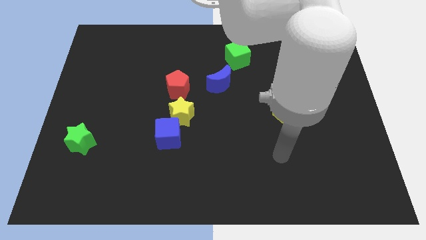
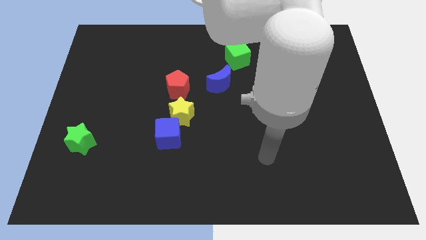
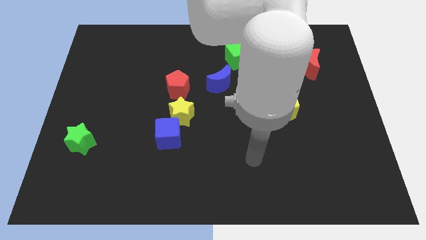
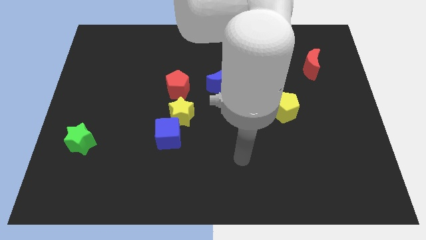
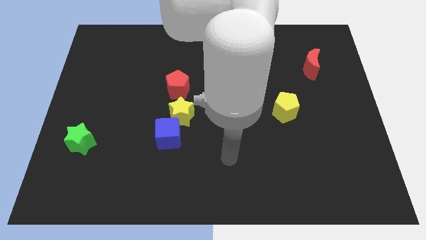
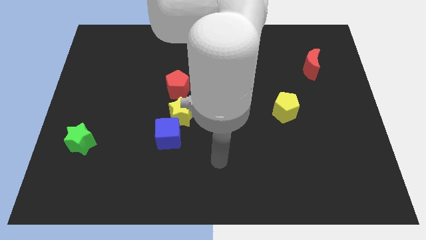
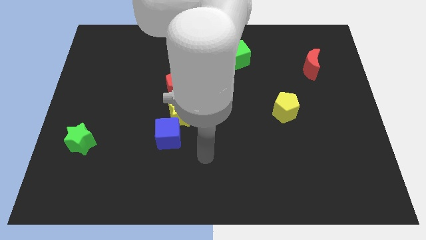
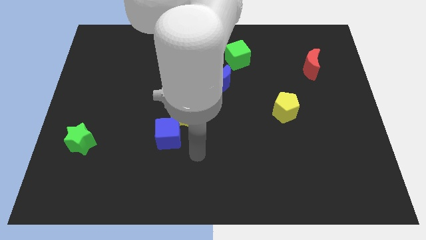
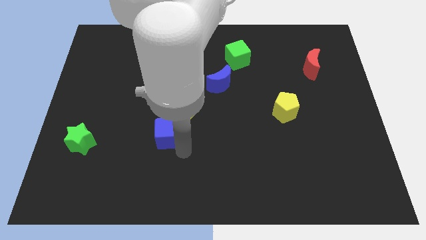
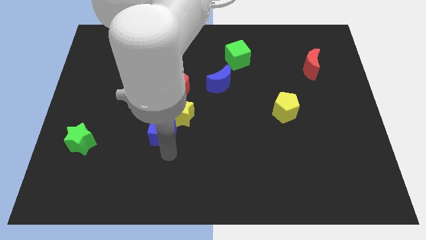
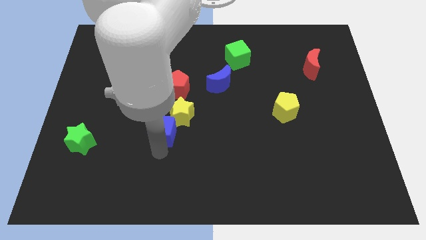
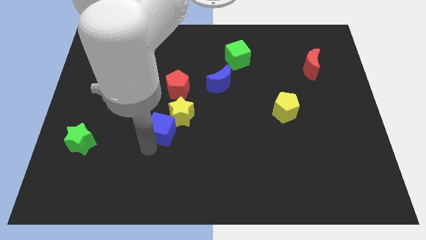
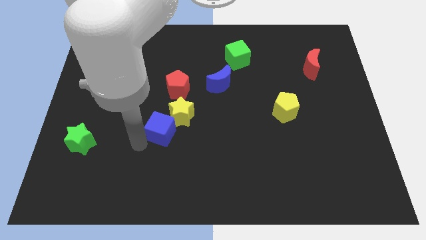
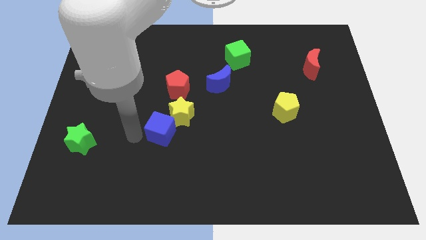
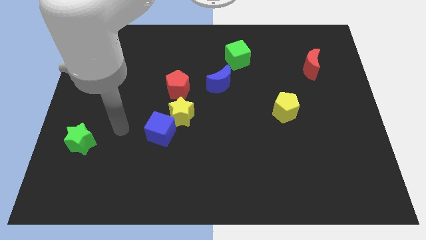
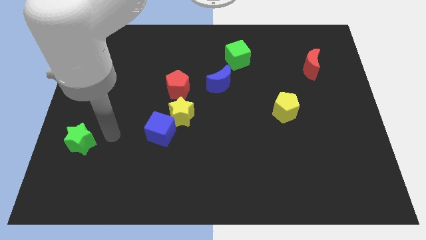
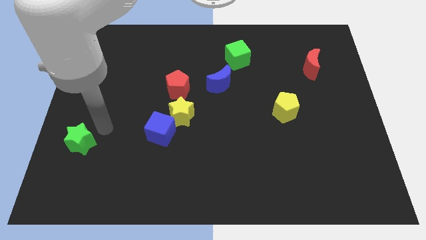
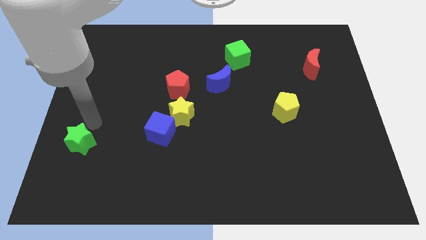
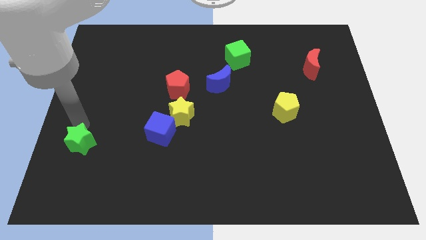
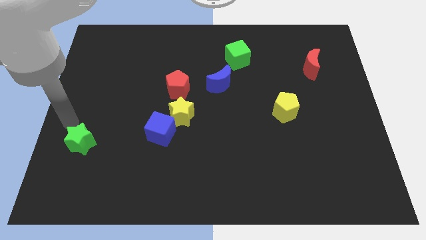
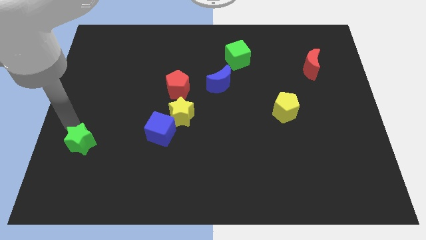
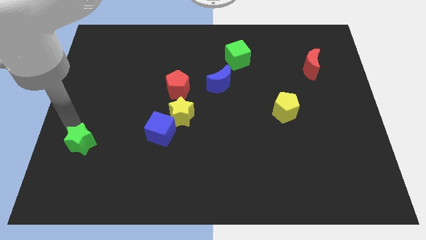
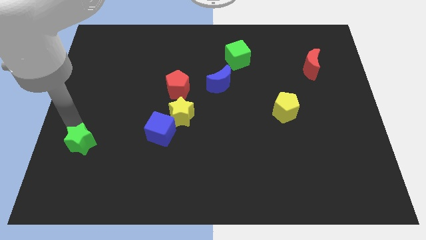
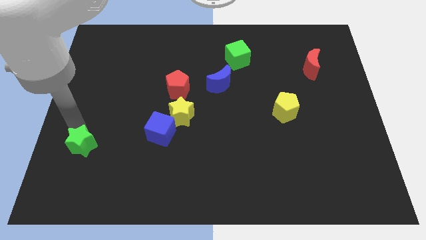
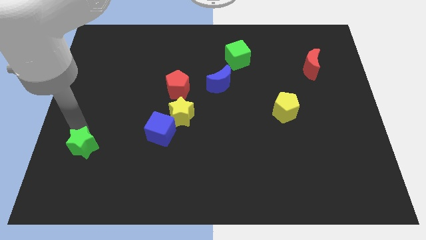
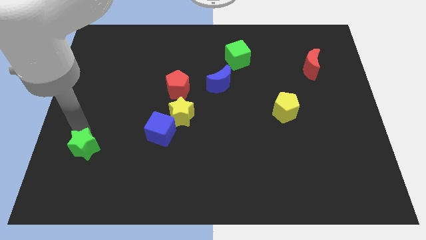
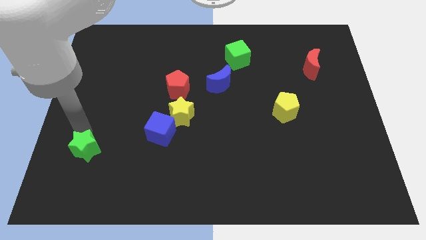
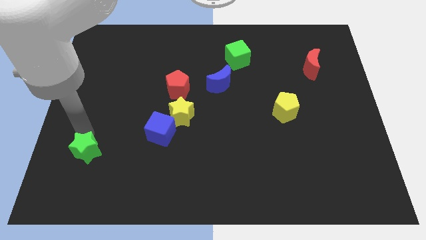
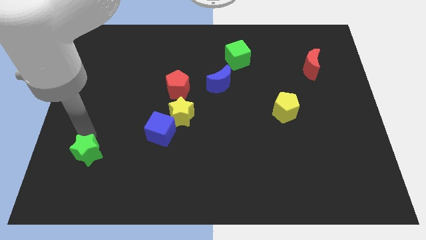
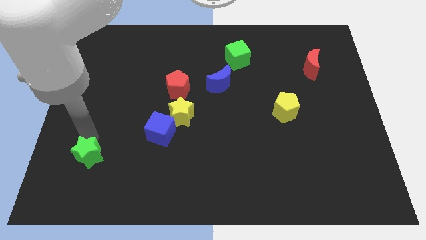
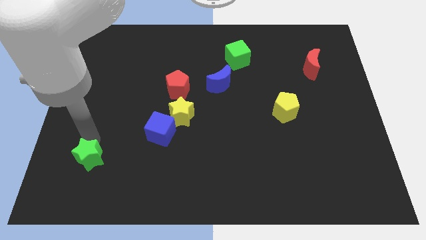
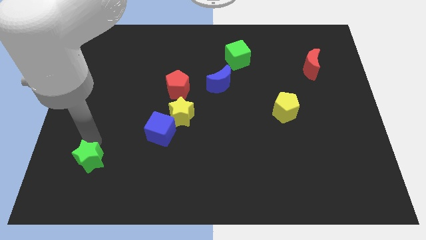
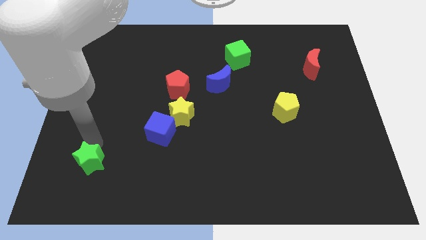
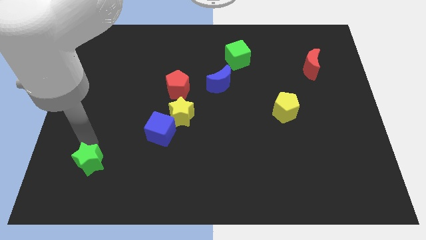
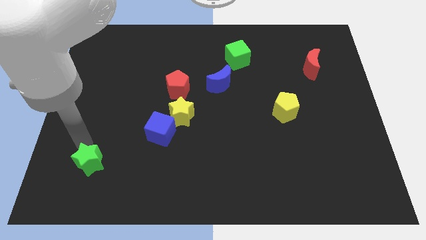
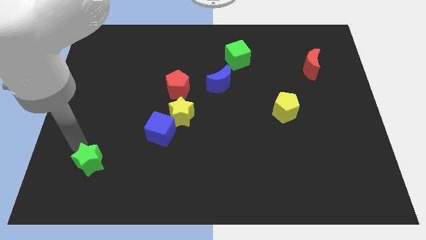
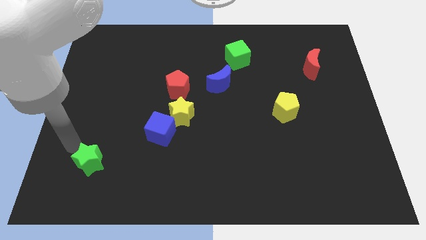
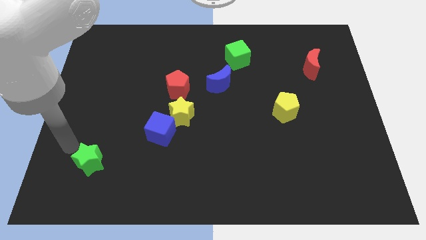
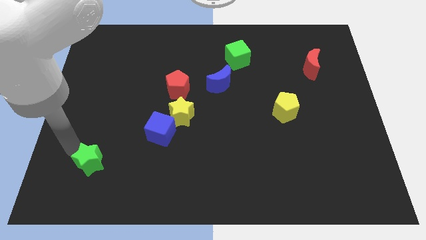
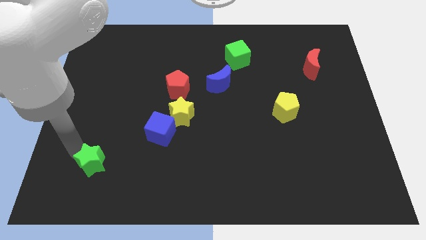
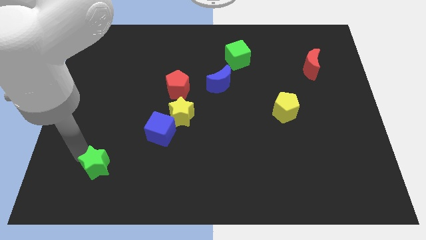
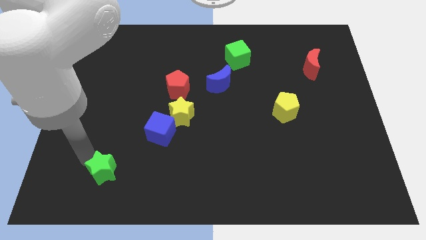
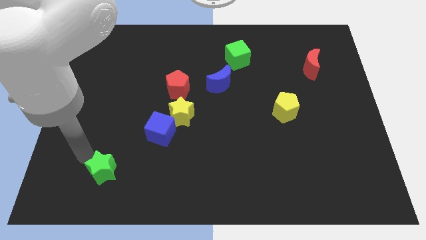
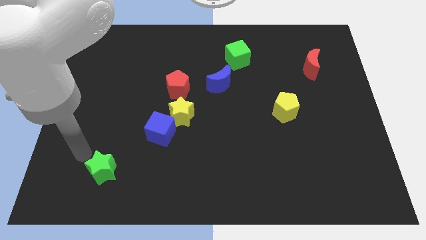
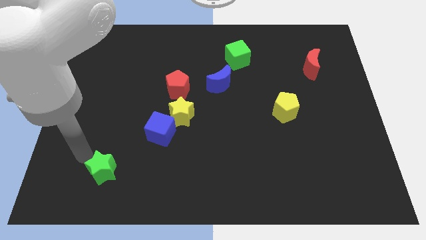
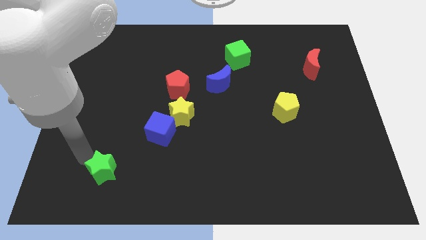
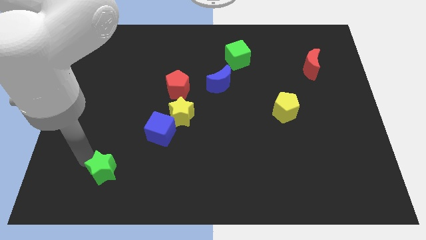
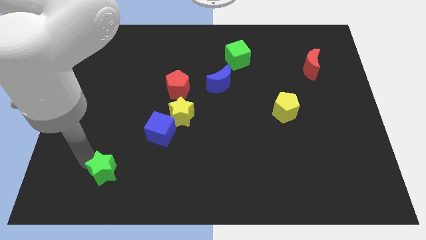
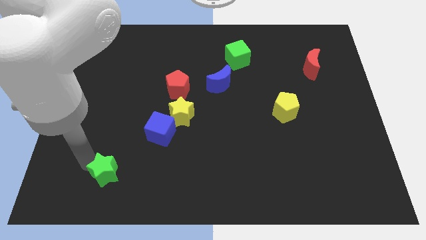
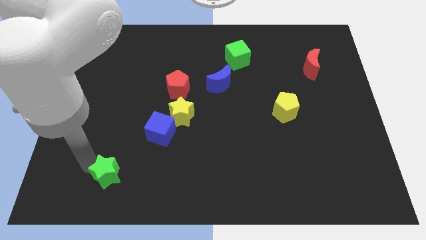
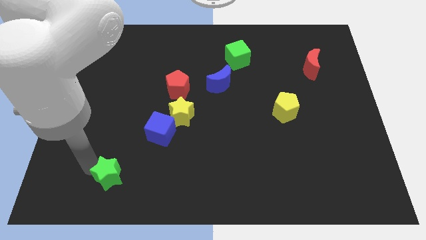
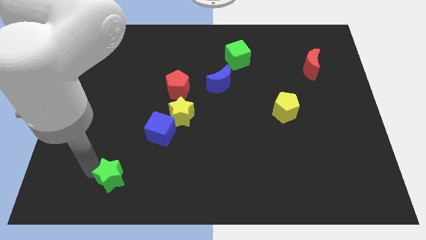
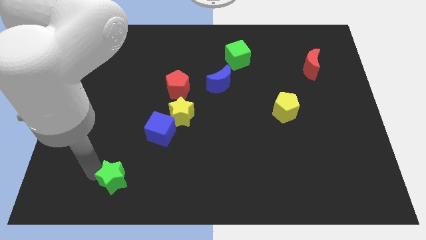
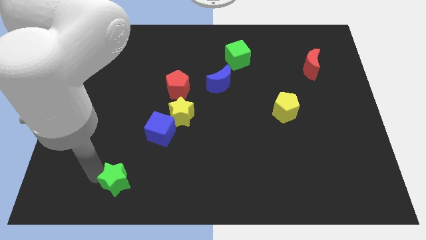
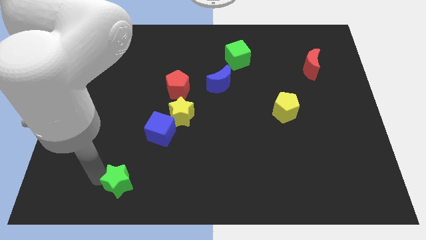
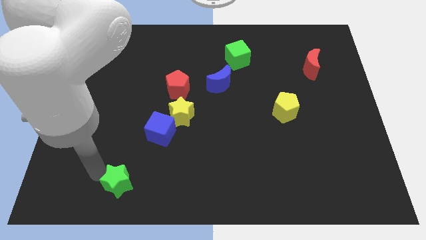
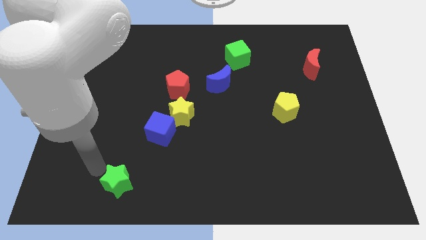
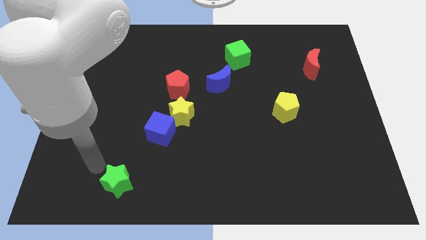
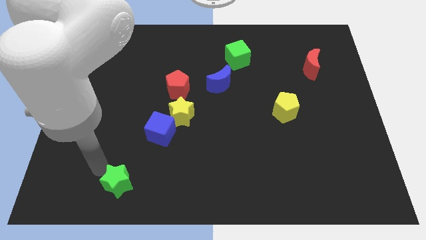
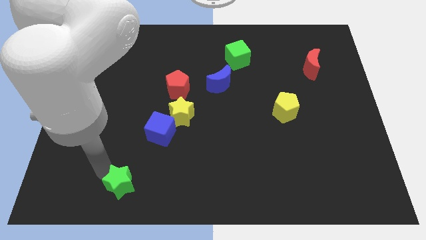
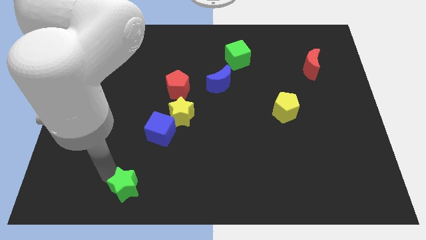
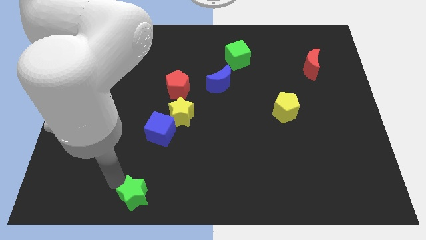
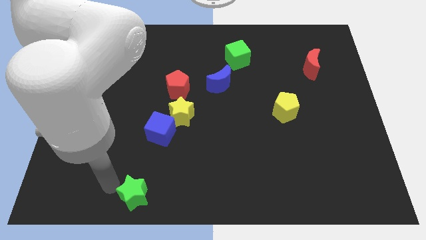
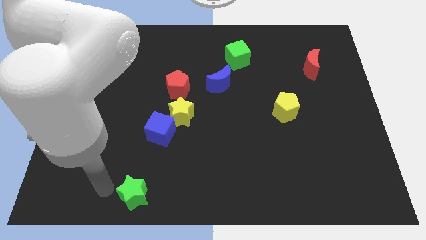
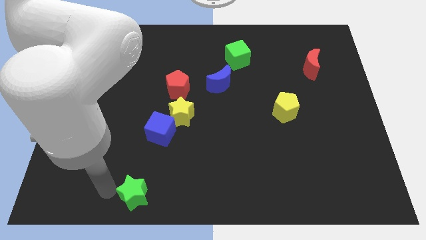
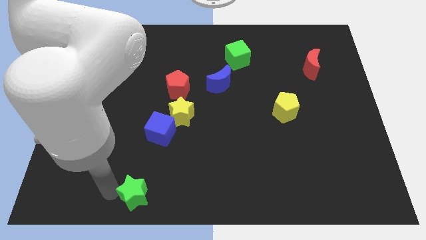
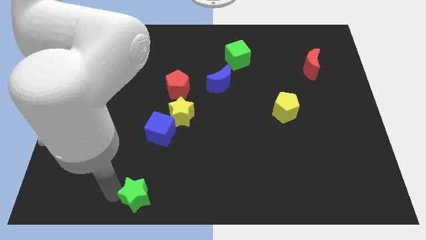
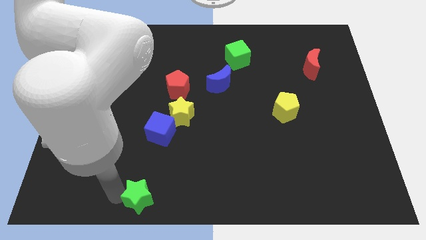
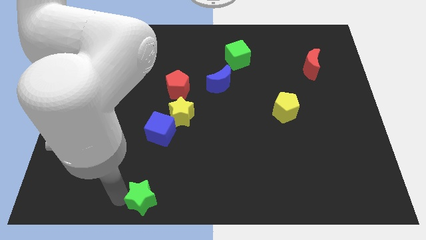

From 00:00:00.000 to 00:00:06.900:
push the green star to the bottom
